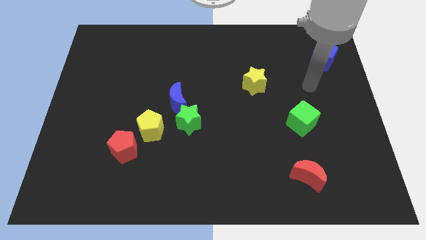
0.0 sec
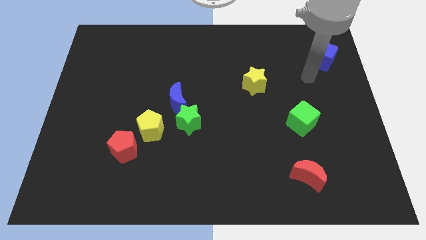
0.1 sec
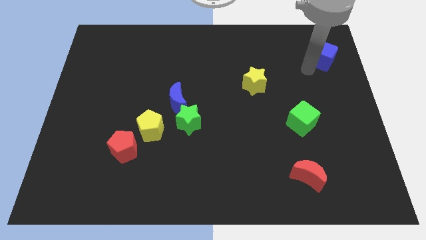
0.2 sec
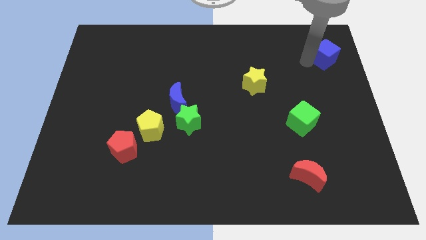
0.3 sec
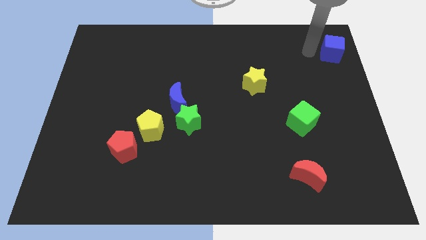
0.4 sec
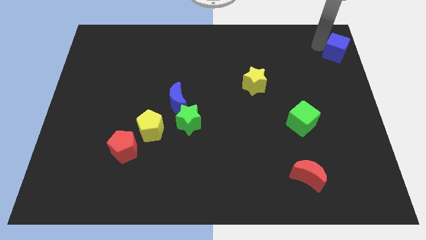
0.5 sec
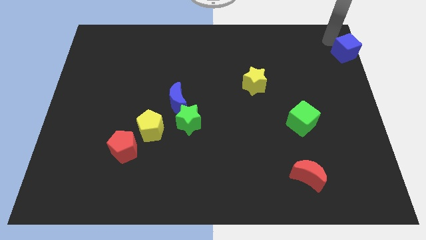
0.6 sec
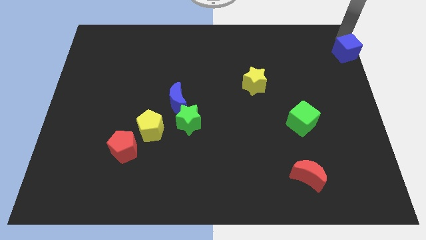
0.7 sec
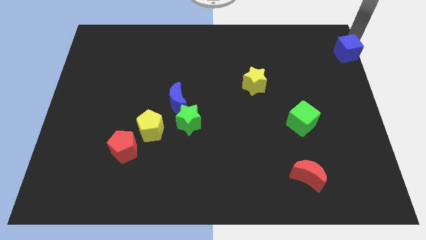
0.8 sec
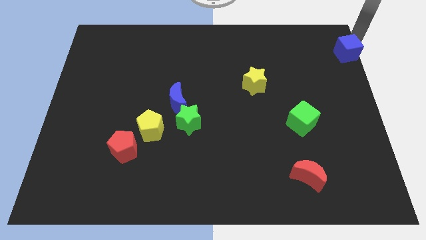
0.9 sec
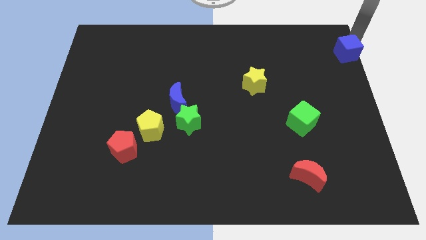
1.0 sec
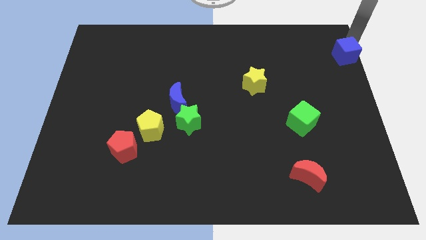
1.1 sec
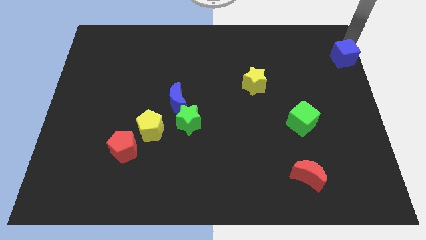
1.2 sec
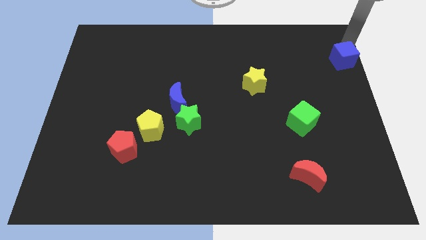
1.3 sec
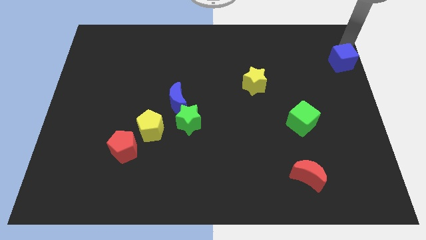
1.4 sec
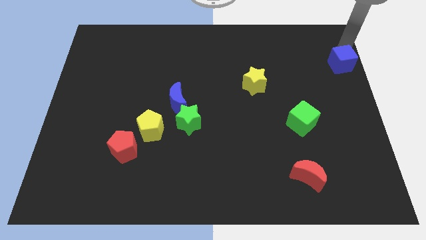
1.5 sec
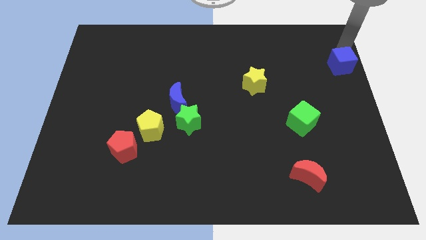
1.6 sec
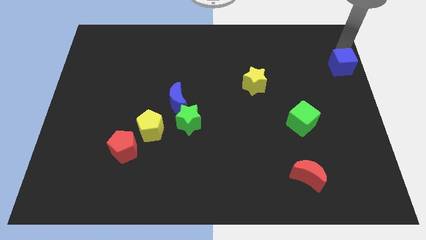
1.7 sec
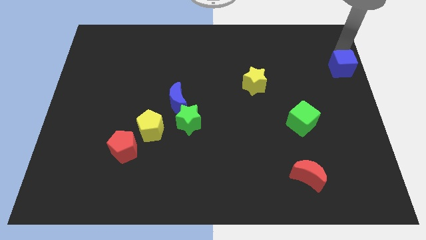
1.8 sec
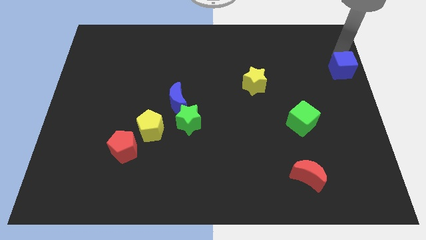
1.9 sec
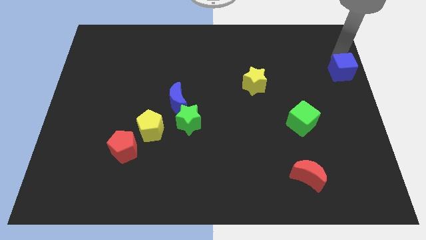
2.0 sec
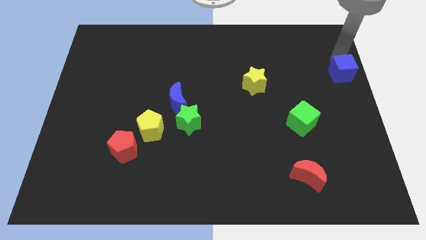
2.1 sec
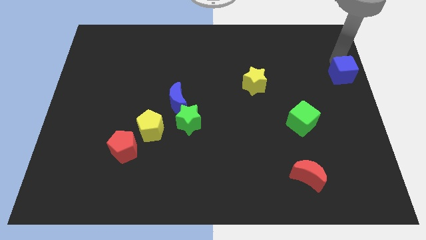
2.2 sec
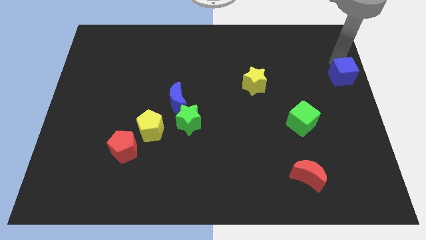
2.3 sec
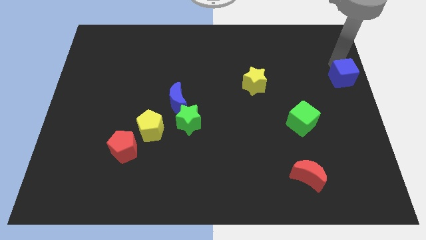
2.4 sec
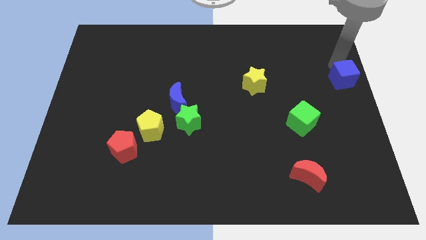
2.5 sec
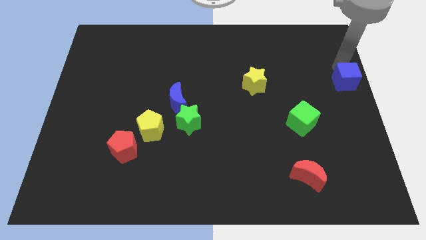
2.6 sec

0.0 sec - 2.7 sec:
move the blue cube down slightly

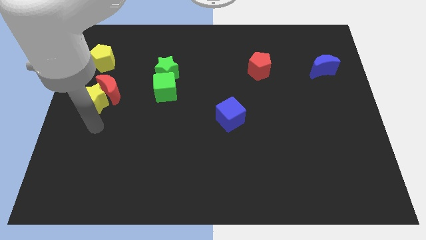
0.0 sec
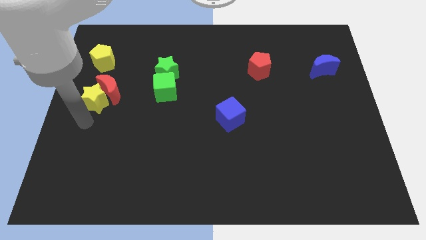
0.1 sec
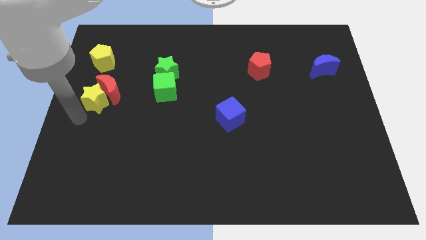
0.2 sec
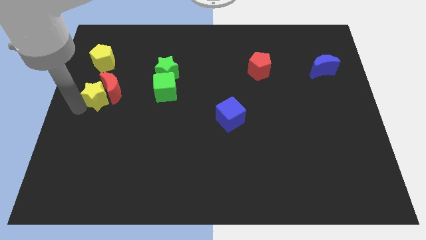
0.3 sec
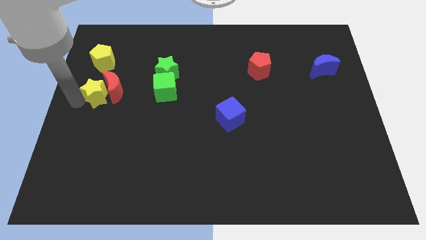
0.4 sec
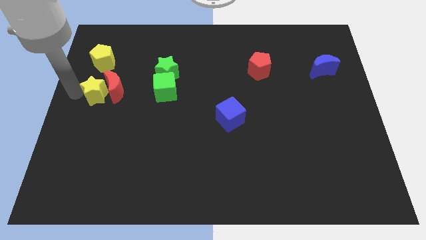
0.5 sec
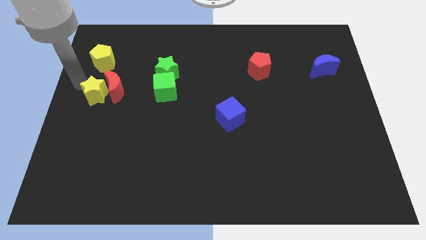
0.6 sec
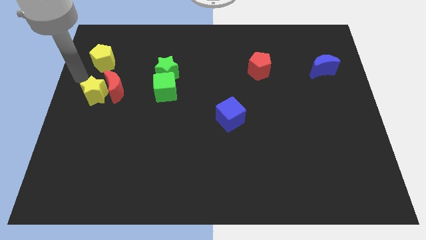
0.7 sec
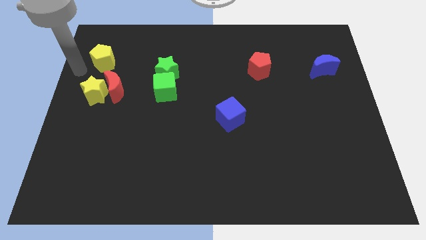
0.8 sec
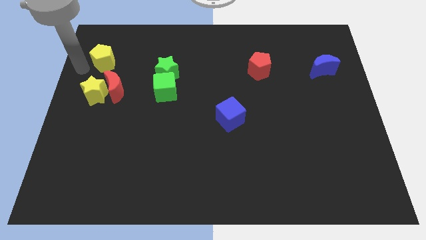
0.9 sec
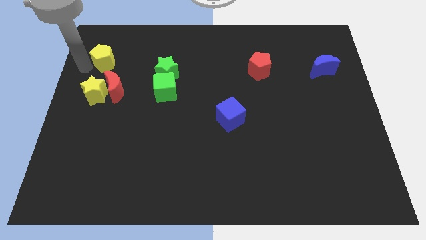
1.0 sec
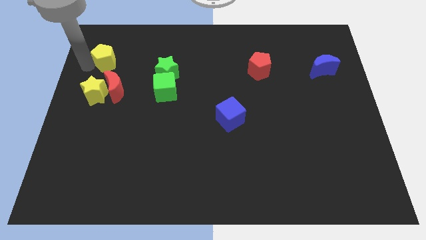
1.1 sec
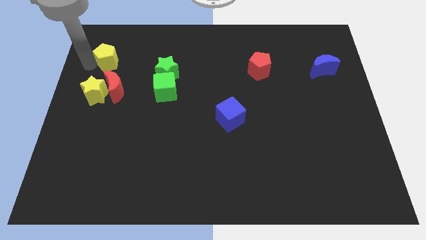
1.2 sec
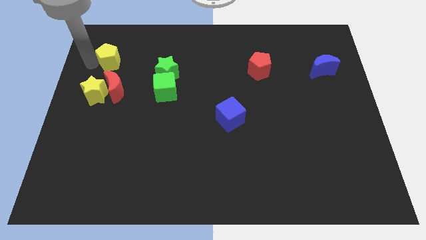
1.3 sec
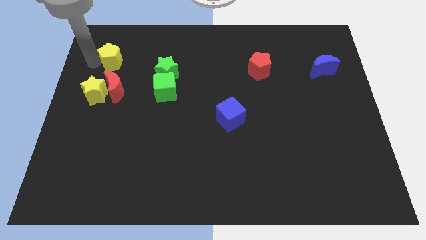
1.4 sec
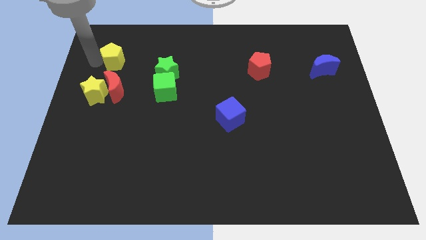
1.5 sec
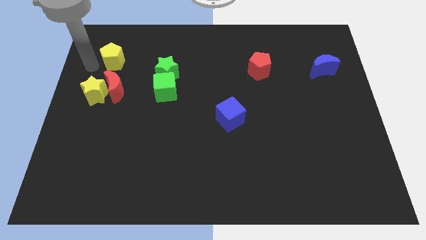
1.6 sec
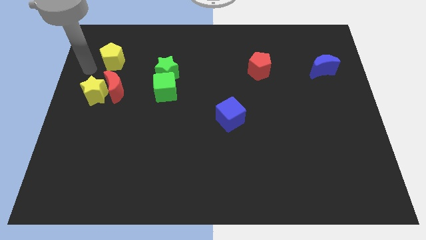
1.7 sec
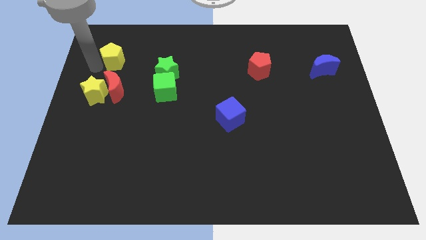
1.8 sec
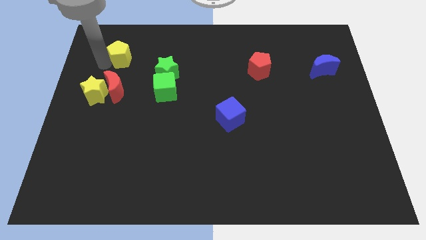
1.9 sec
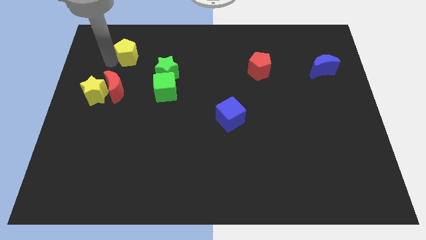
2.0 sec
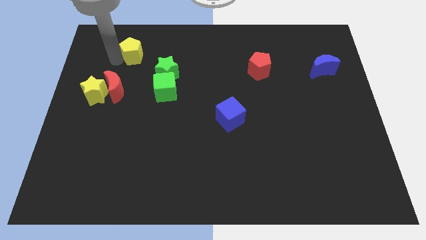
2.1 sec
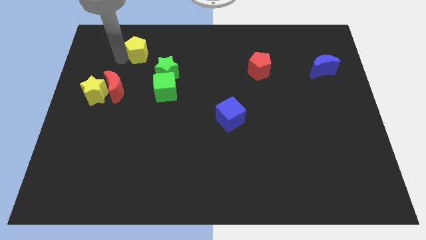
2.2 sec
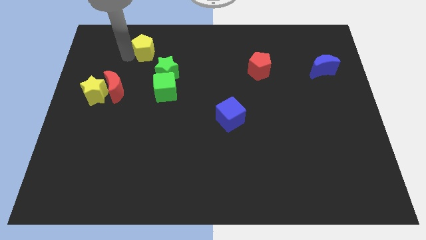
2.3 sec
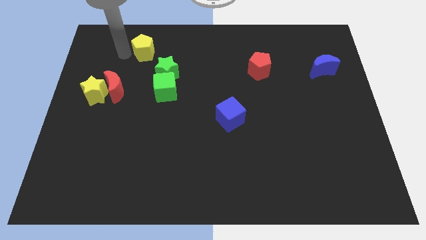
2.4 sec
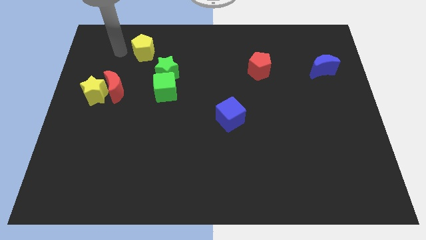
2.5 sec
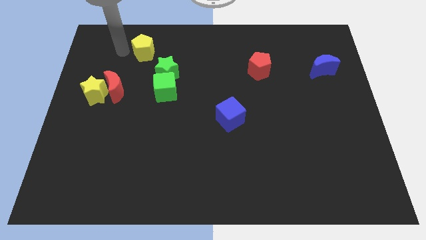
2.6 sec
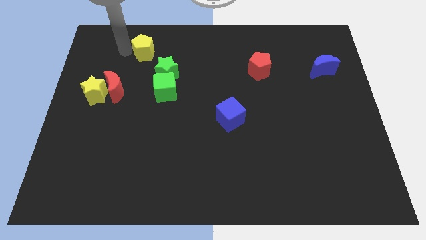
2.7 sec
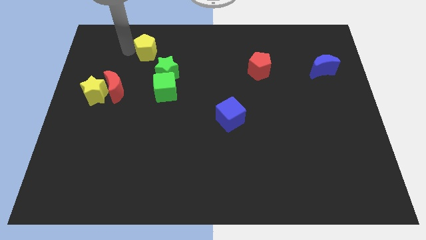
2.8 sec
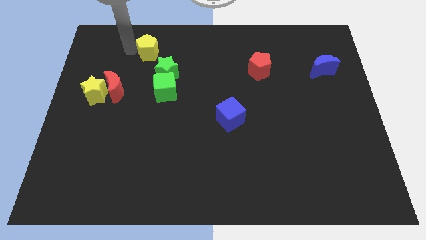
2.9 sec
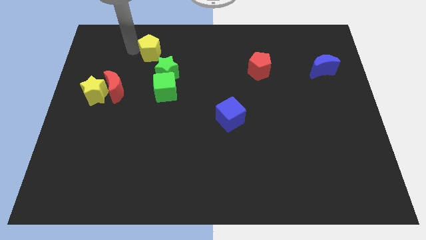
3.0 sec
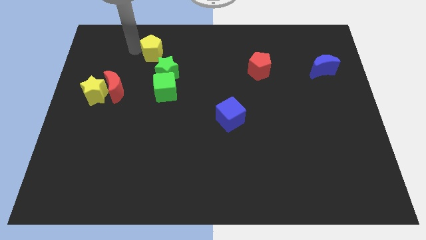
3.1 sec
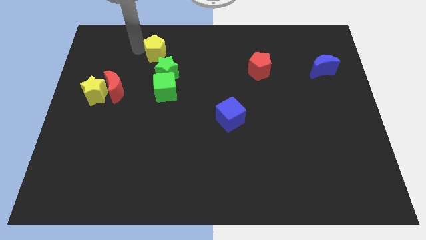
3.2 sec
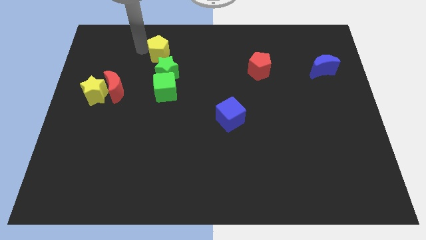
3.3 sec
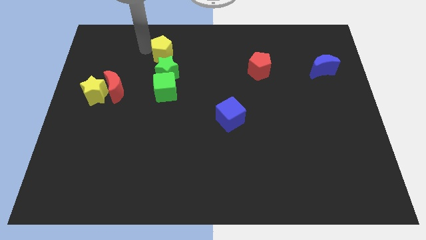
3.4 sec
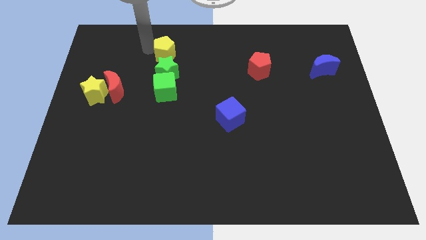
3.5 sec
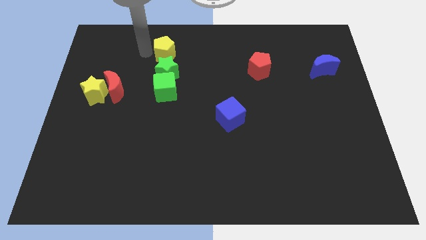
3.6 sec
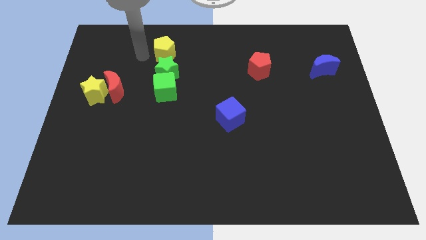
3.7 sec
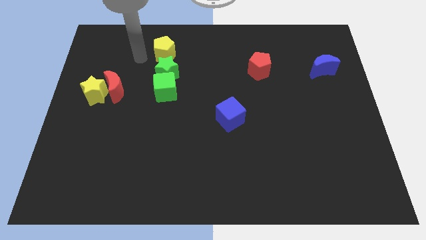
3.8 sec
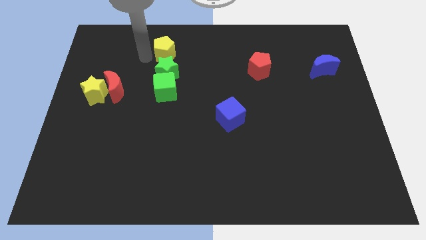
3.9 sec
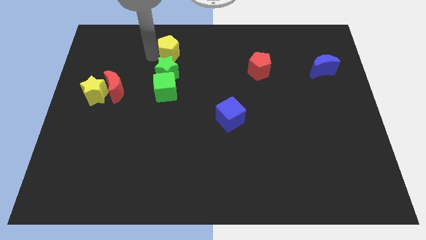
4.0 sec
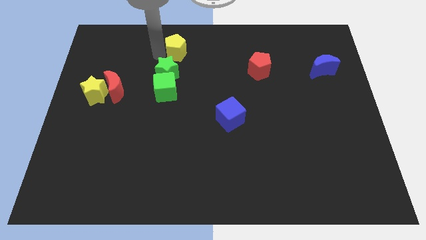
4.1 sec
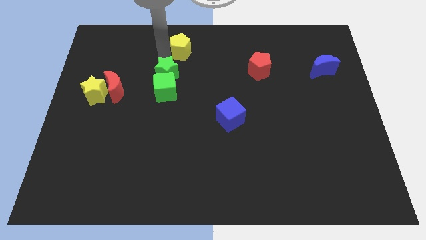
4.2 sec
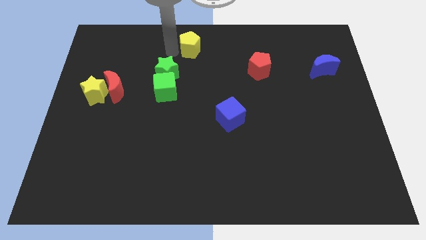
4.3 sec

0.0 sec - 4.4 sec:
move the yellow pentagon right

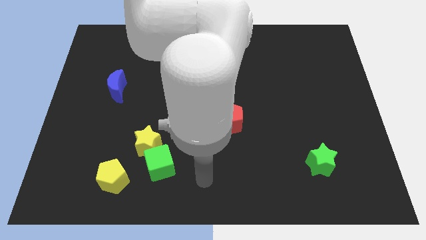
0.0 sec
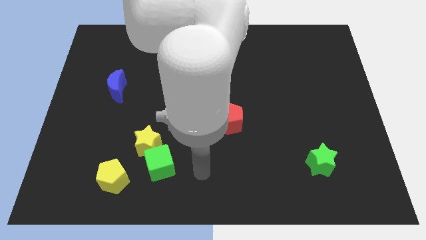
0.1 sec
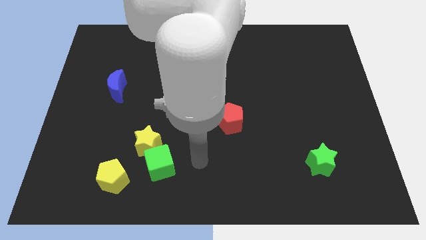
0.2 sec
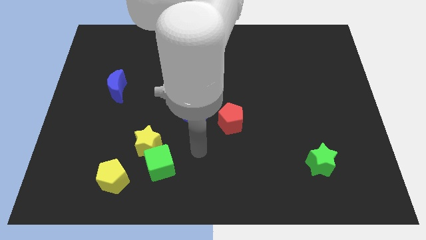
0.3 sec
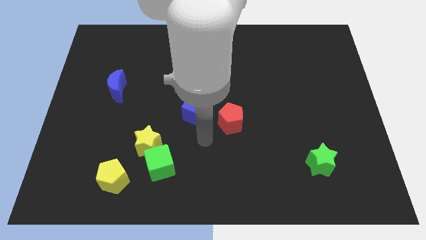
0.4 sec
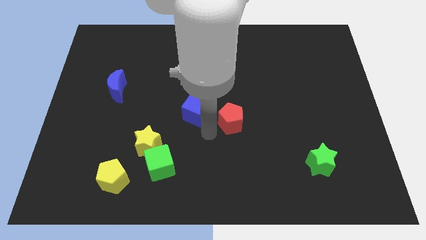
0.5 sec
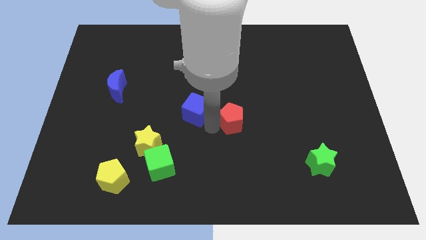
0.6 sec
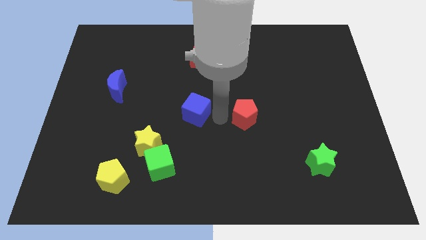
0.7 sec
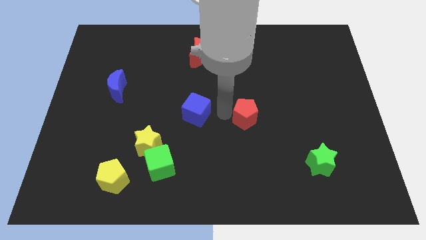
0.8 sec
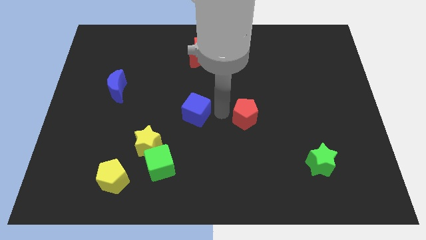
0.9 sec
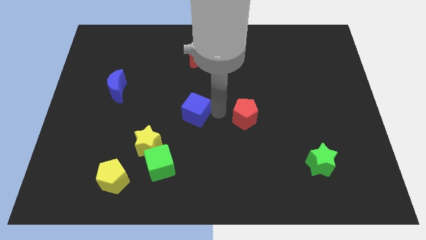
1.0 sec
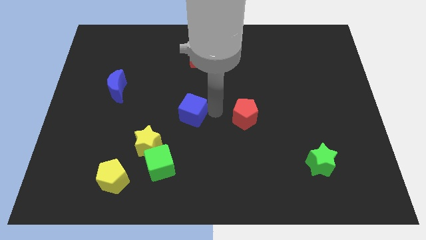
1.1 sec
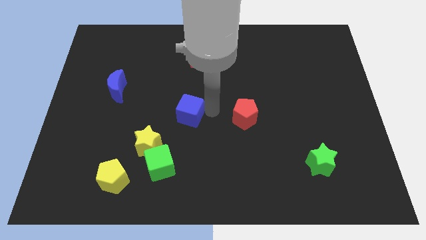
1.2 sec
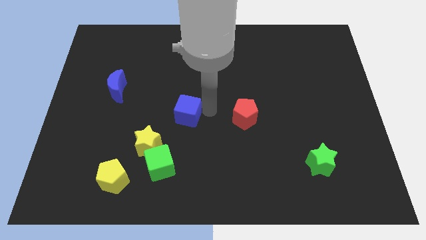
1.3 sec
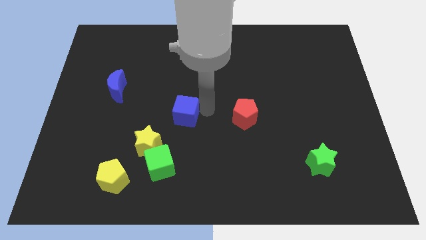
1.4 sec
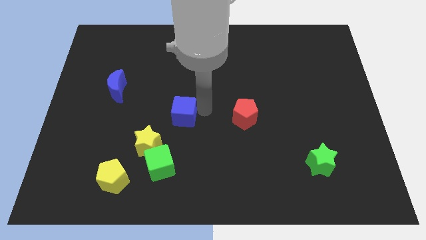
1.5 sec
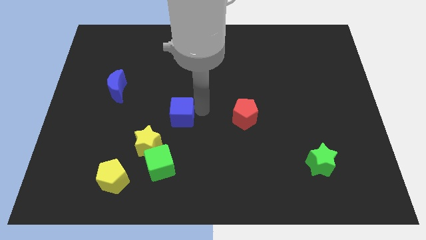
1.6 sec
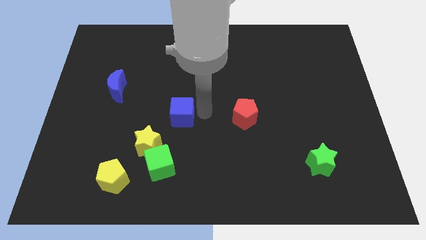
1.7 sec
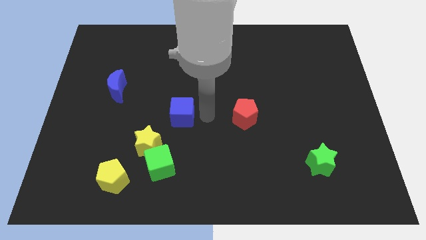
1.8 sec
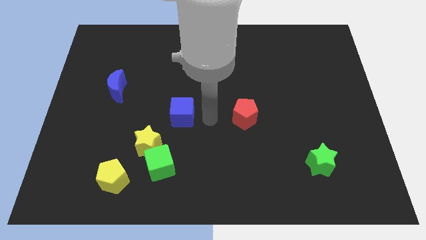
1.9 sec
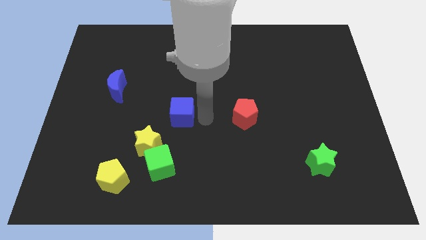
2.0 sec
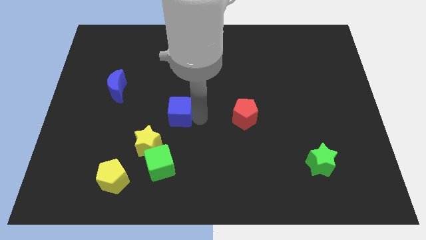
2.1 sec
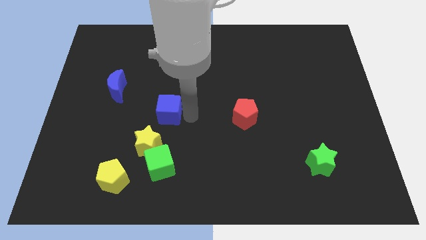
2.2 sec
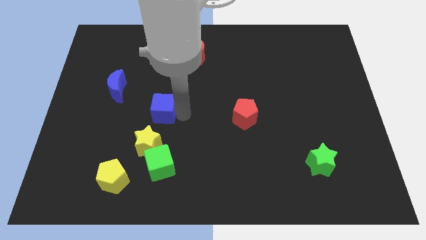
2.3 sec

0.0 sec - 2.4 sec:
move the blue cube to the left somewhat
